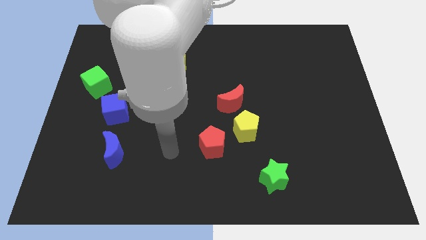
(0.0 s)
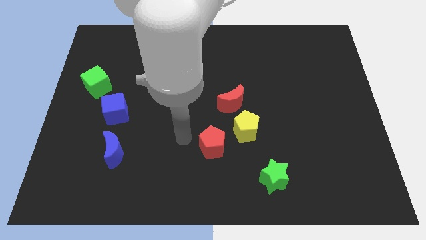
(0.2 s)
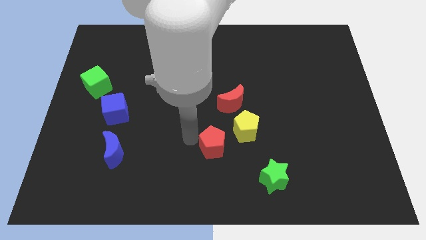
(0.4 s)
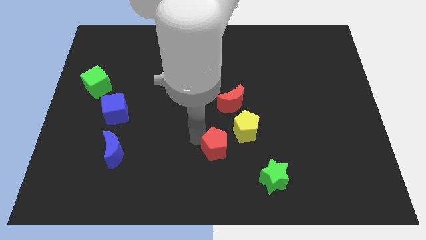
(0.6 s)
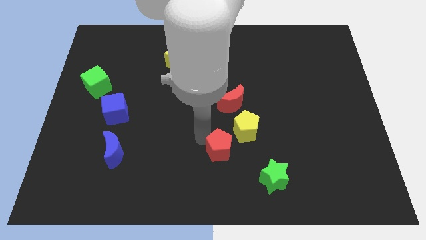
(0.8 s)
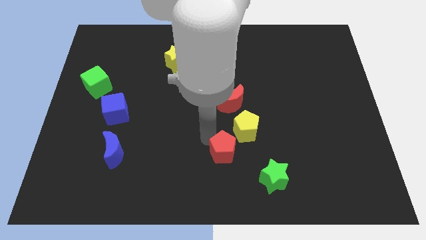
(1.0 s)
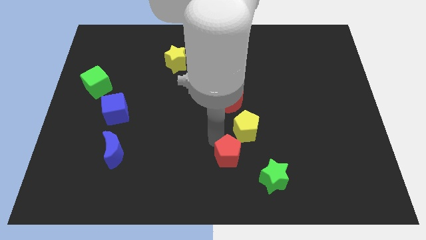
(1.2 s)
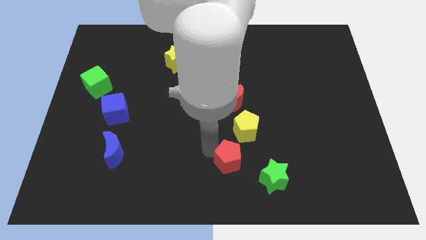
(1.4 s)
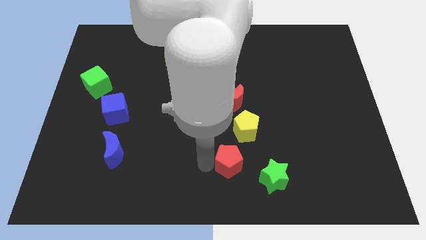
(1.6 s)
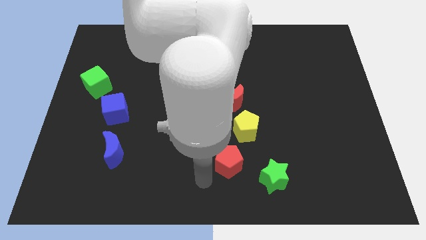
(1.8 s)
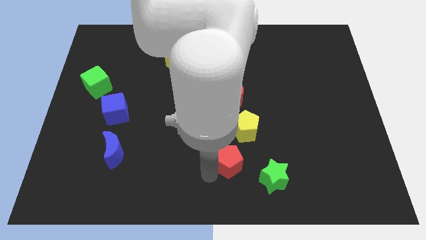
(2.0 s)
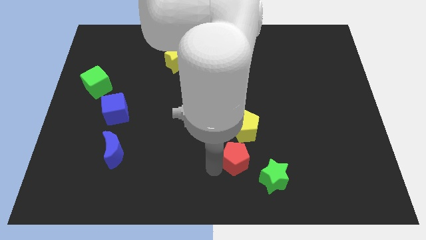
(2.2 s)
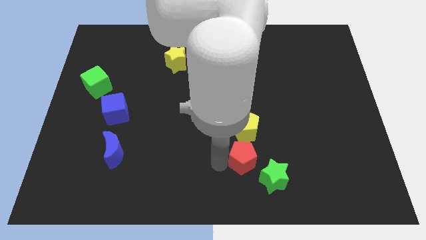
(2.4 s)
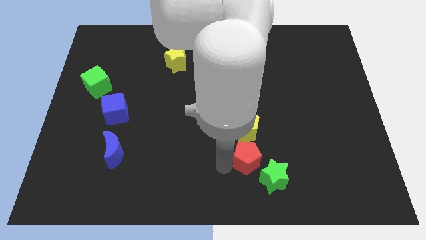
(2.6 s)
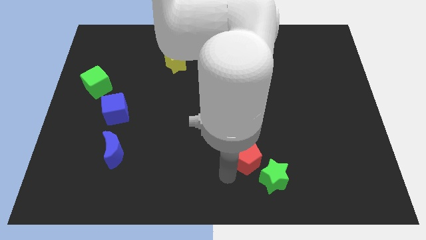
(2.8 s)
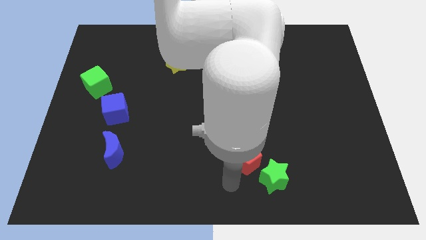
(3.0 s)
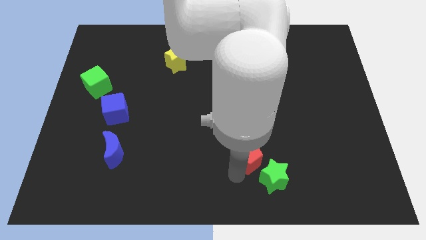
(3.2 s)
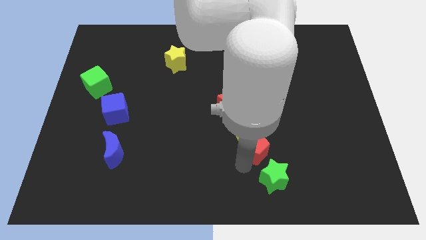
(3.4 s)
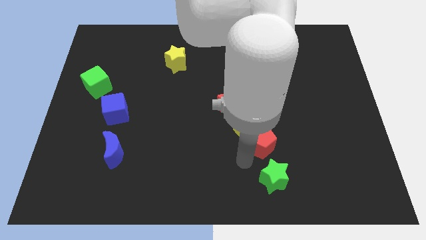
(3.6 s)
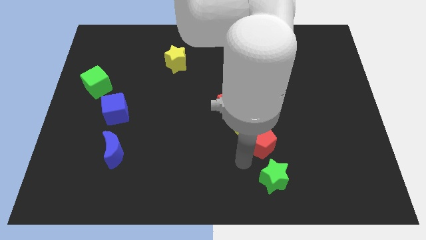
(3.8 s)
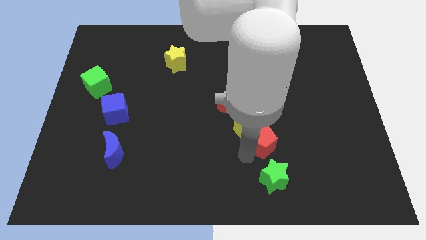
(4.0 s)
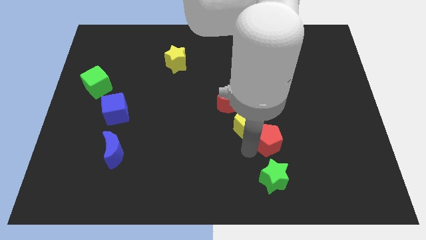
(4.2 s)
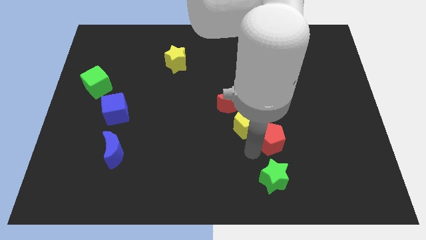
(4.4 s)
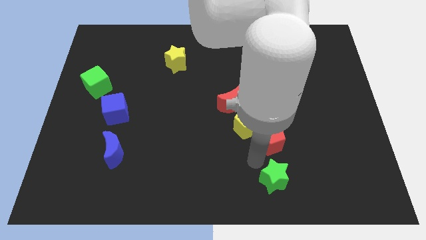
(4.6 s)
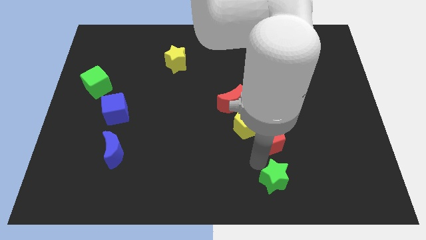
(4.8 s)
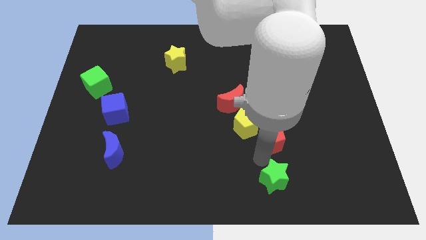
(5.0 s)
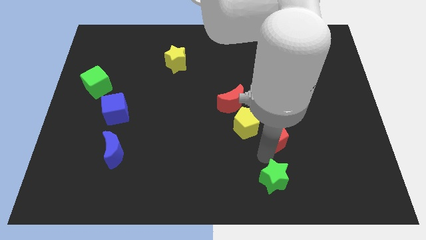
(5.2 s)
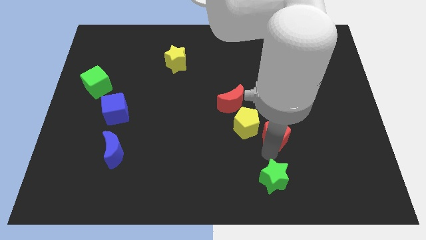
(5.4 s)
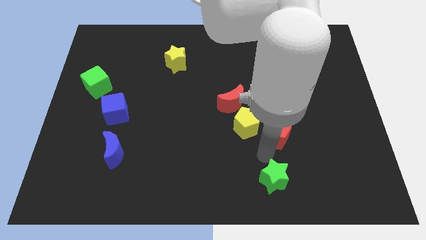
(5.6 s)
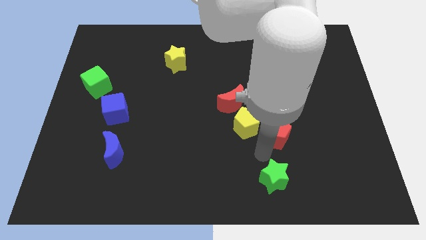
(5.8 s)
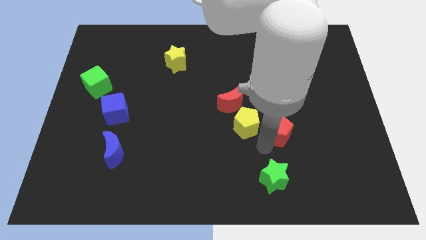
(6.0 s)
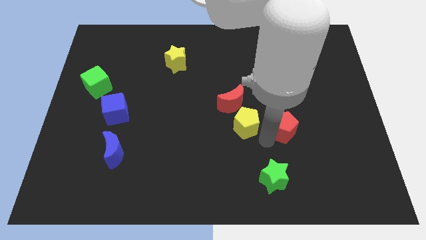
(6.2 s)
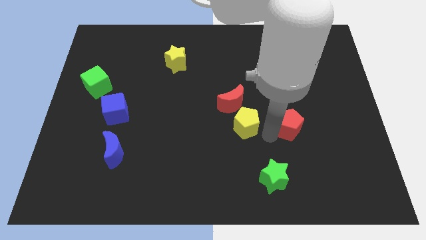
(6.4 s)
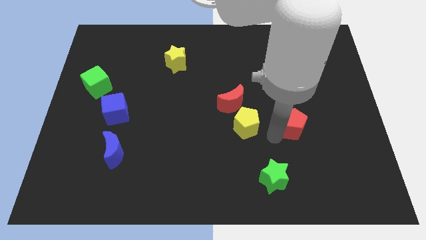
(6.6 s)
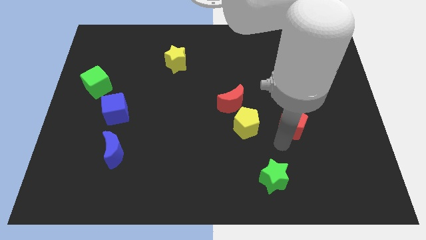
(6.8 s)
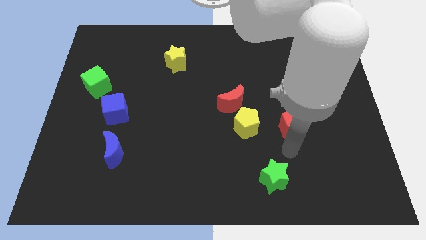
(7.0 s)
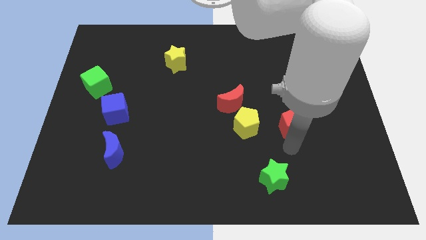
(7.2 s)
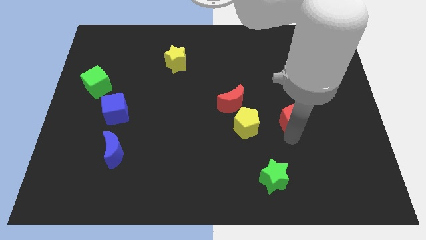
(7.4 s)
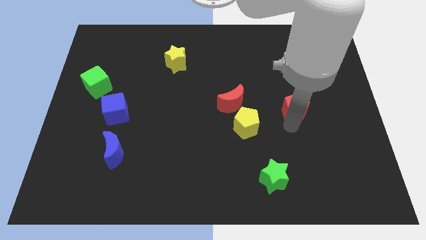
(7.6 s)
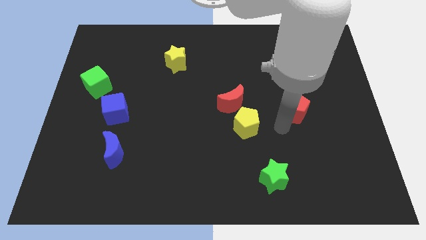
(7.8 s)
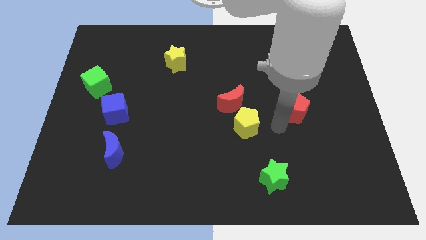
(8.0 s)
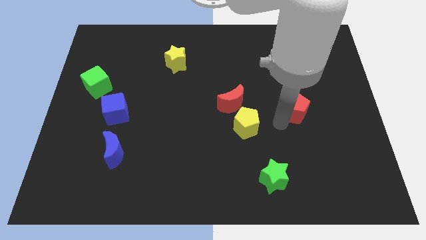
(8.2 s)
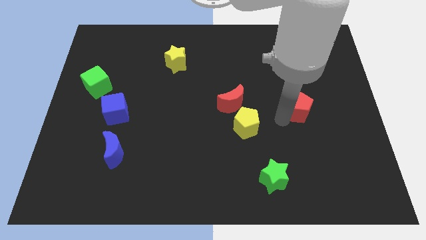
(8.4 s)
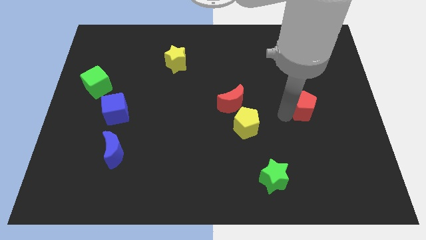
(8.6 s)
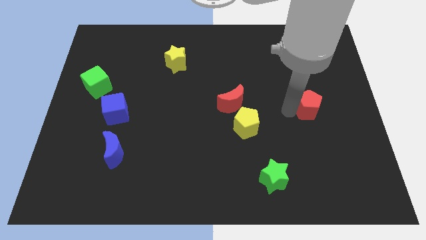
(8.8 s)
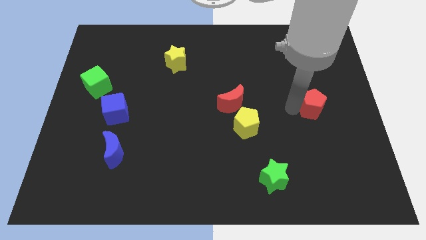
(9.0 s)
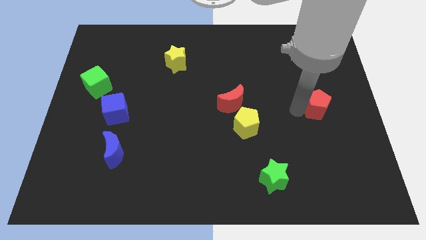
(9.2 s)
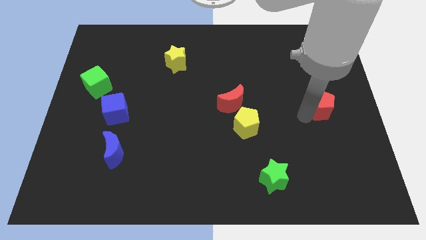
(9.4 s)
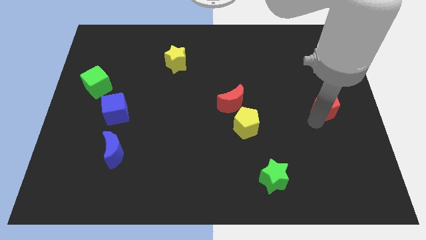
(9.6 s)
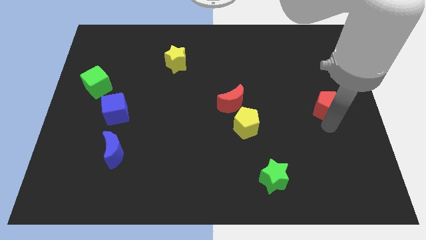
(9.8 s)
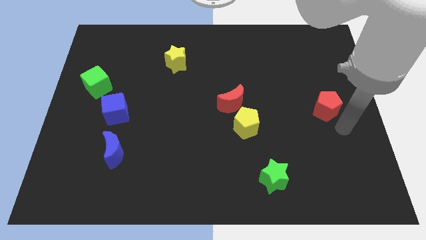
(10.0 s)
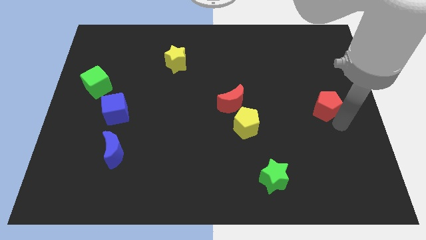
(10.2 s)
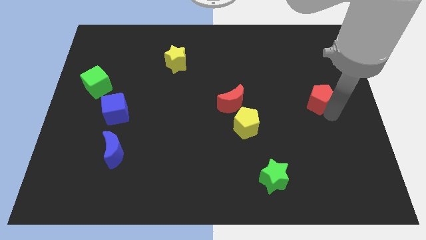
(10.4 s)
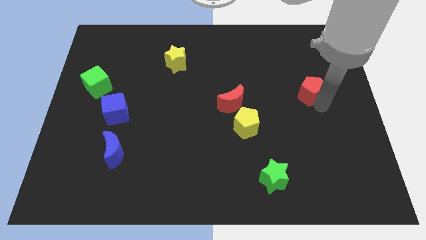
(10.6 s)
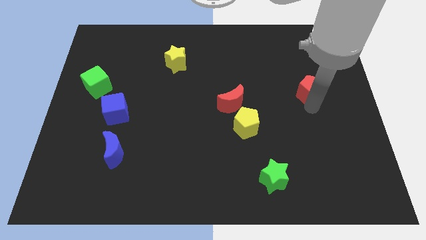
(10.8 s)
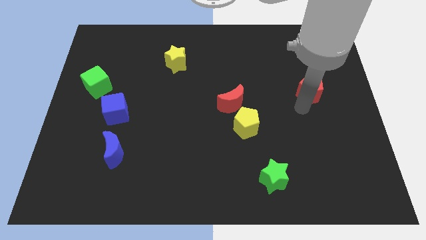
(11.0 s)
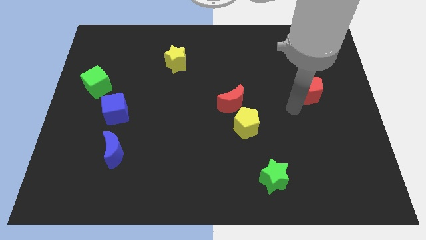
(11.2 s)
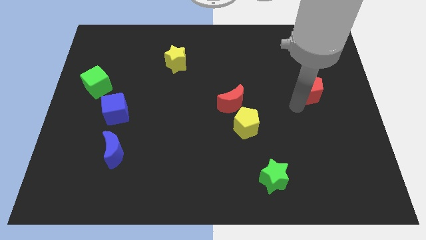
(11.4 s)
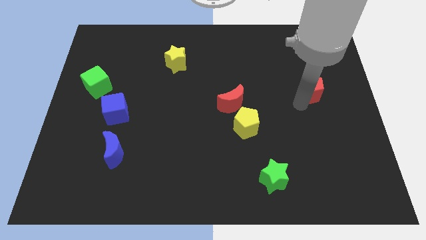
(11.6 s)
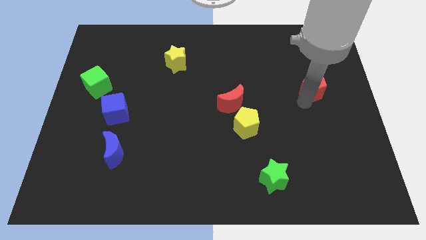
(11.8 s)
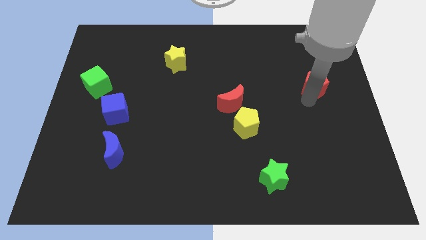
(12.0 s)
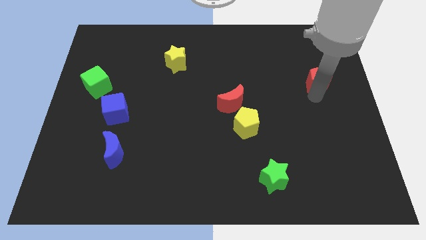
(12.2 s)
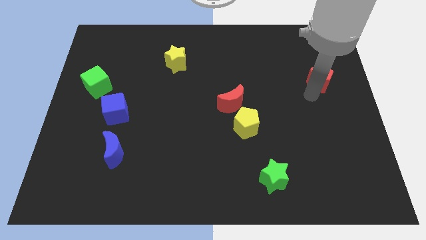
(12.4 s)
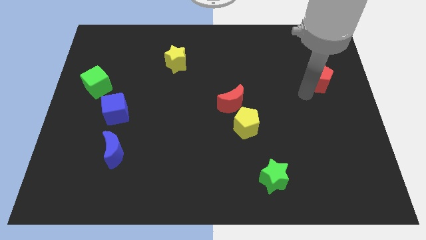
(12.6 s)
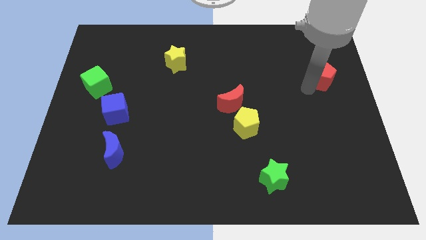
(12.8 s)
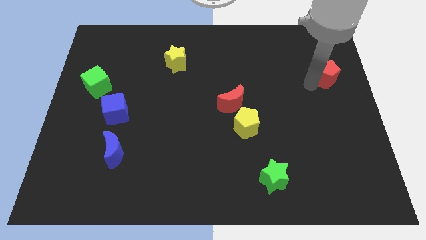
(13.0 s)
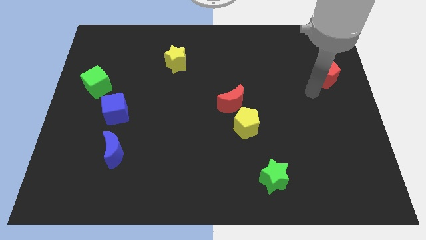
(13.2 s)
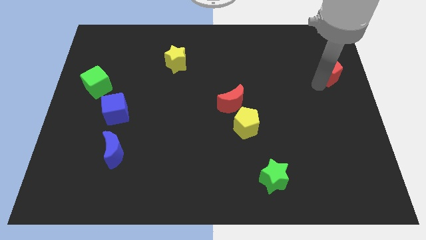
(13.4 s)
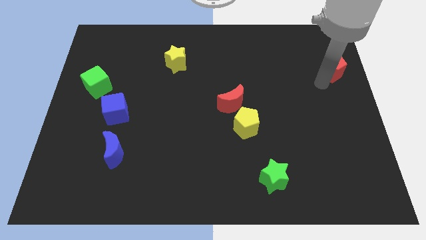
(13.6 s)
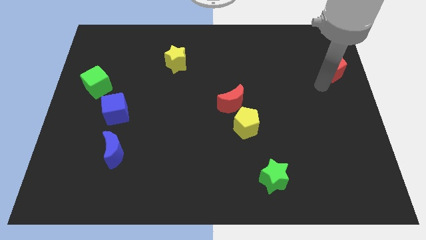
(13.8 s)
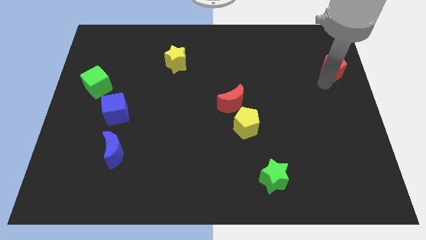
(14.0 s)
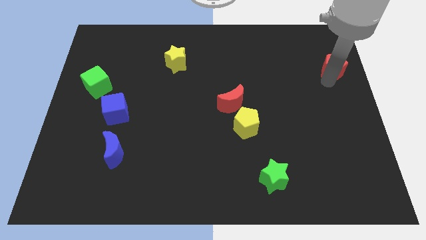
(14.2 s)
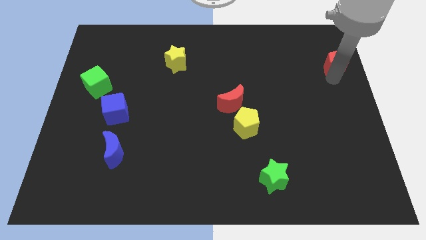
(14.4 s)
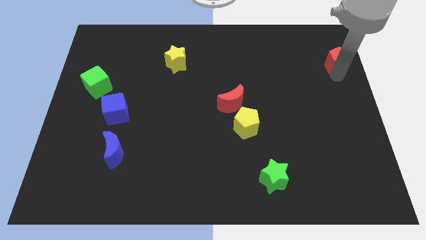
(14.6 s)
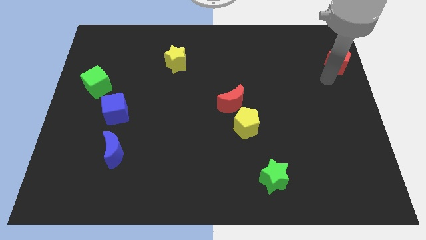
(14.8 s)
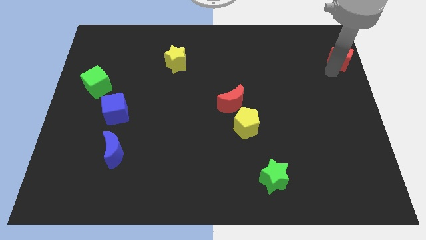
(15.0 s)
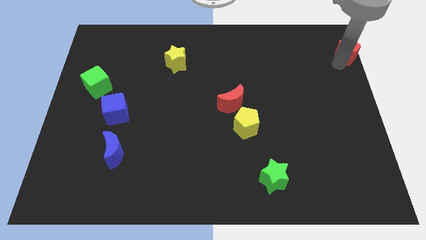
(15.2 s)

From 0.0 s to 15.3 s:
push the red pentagon to the top right corner
